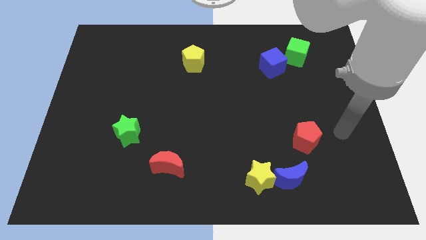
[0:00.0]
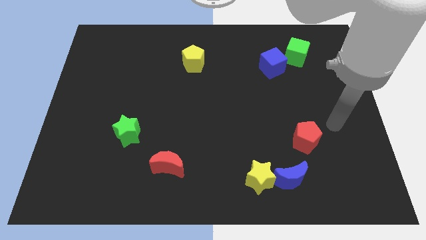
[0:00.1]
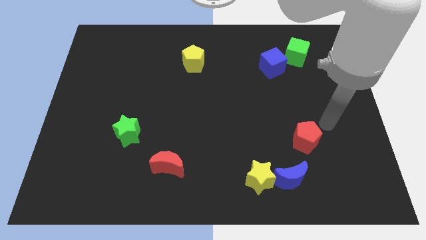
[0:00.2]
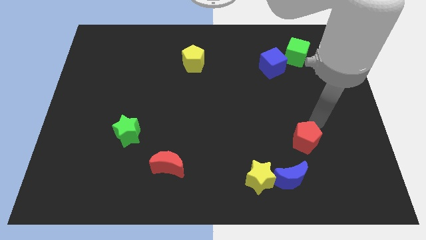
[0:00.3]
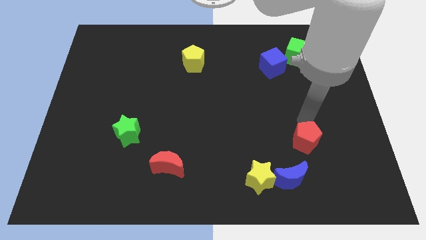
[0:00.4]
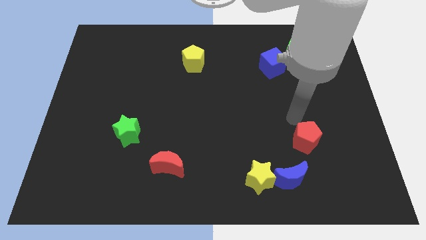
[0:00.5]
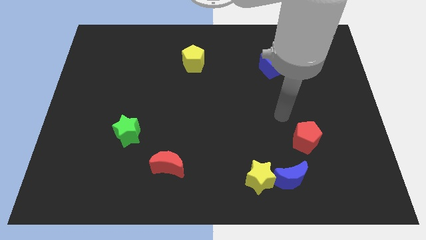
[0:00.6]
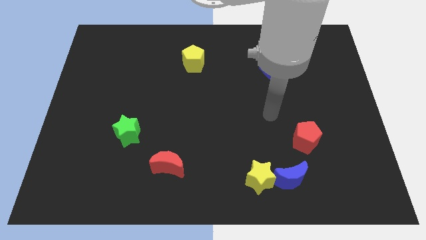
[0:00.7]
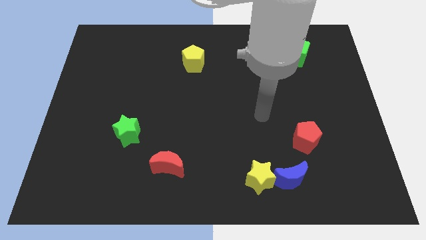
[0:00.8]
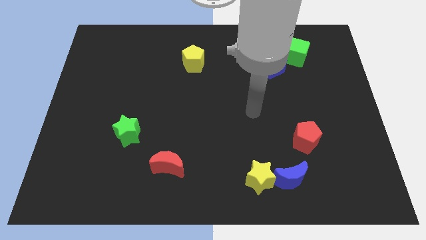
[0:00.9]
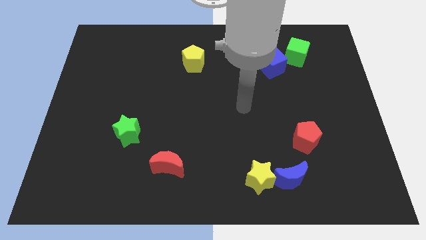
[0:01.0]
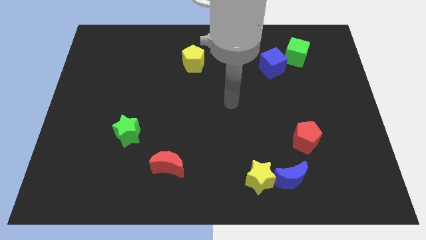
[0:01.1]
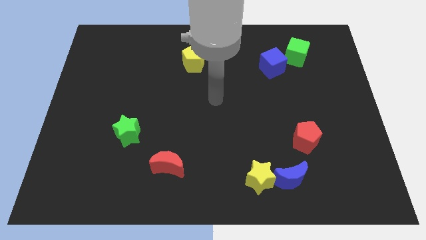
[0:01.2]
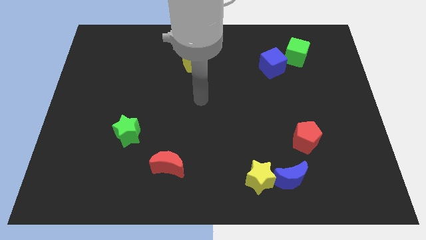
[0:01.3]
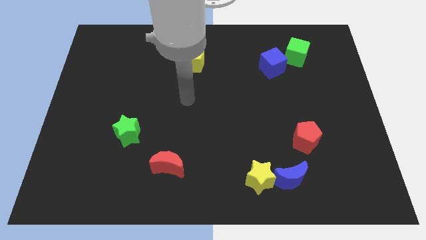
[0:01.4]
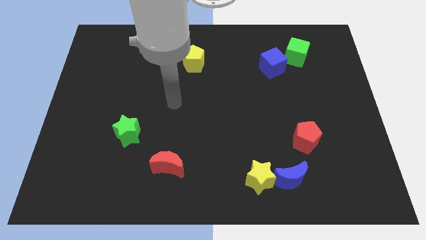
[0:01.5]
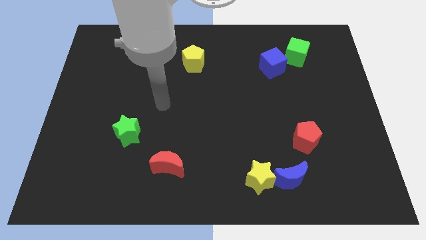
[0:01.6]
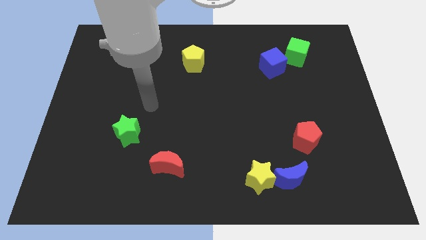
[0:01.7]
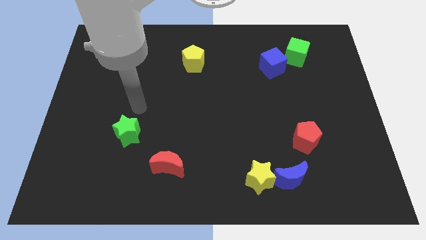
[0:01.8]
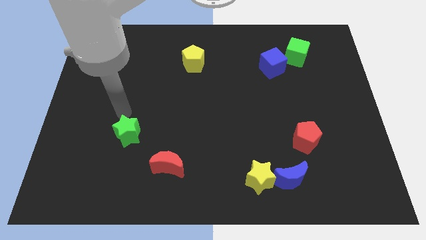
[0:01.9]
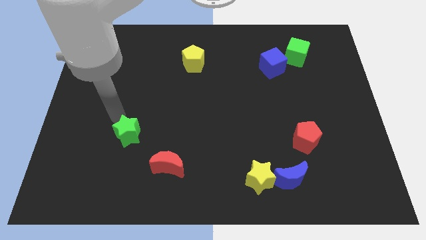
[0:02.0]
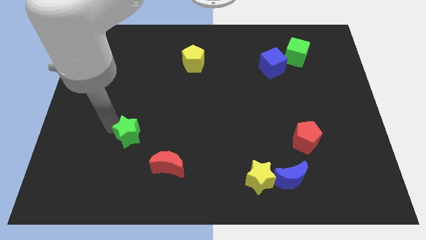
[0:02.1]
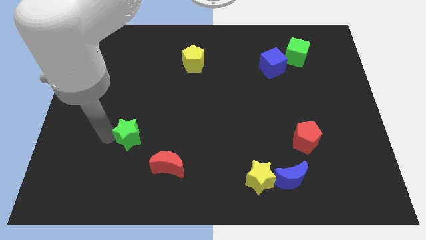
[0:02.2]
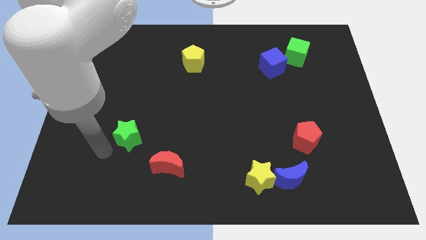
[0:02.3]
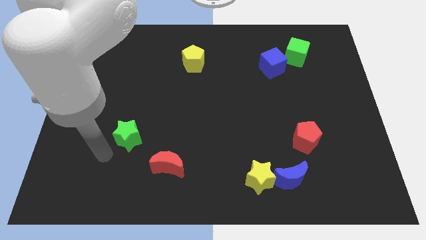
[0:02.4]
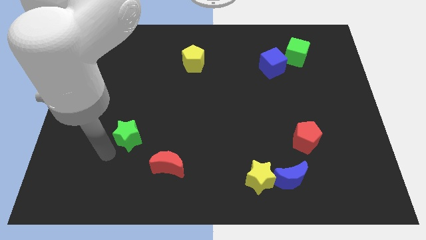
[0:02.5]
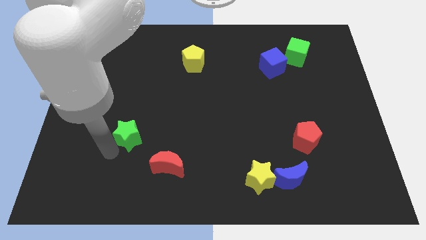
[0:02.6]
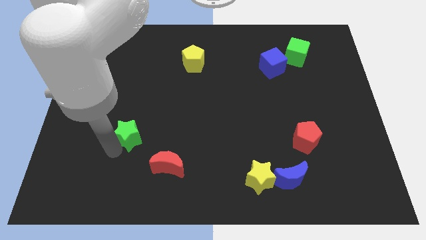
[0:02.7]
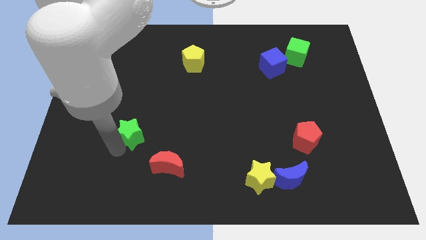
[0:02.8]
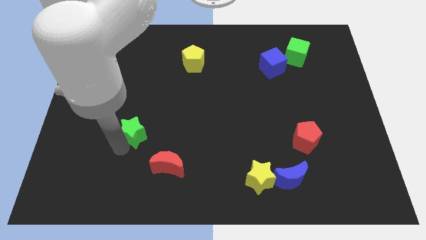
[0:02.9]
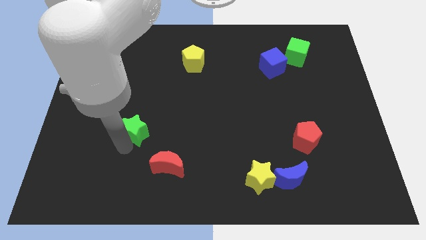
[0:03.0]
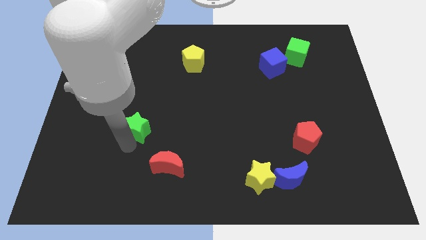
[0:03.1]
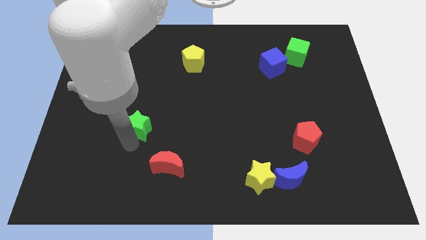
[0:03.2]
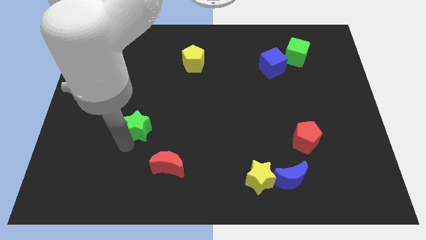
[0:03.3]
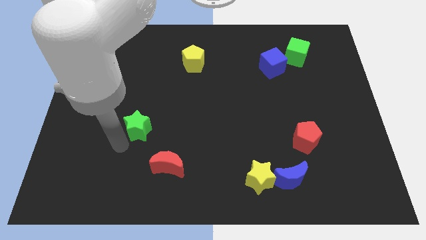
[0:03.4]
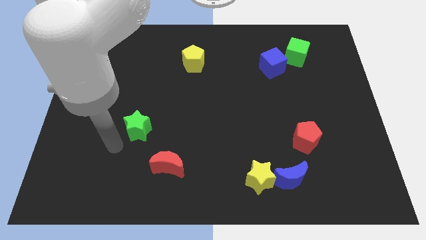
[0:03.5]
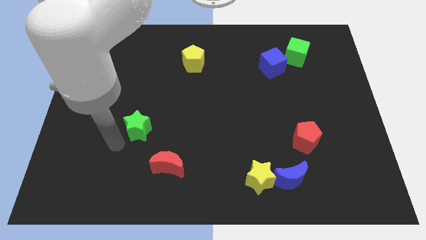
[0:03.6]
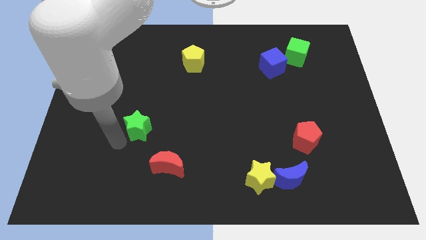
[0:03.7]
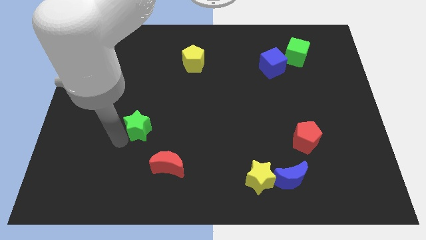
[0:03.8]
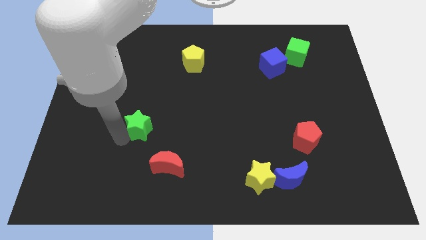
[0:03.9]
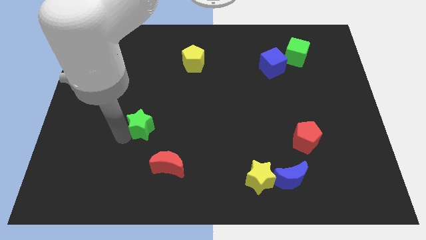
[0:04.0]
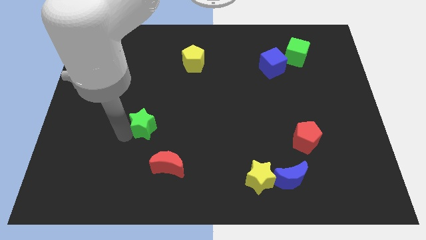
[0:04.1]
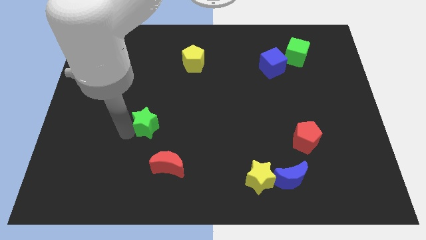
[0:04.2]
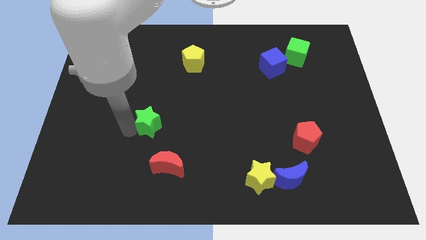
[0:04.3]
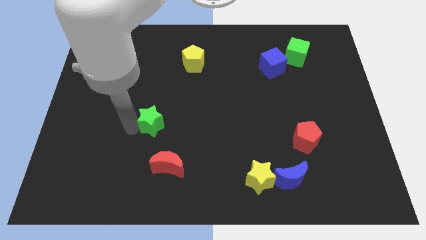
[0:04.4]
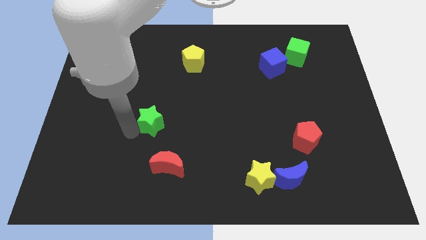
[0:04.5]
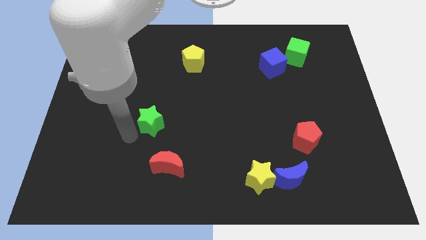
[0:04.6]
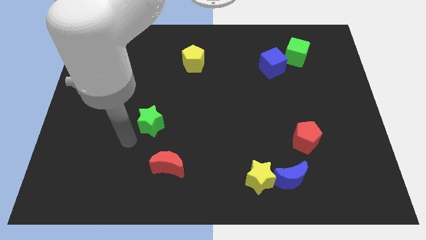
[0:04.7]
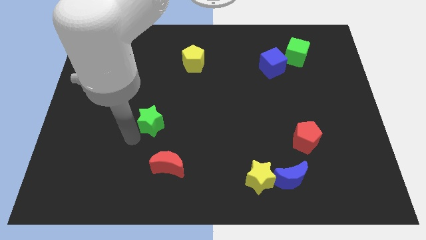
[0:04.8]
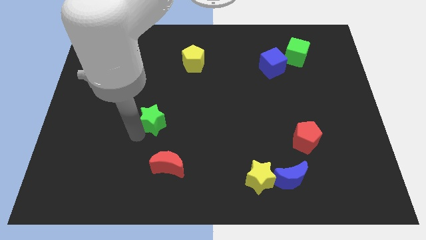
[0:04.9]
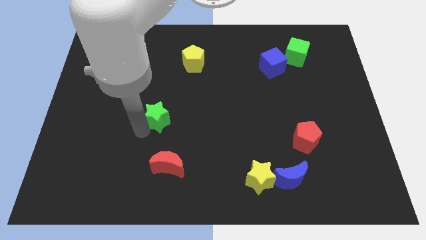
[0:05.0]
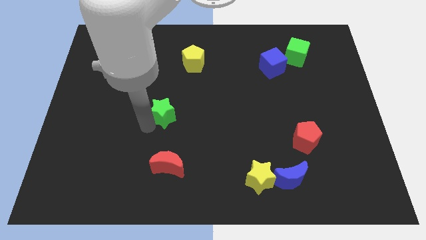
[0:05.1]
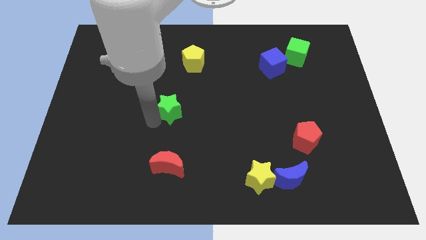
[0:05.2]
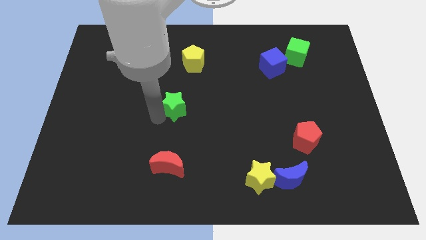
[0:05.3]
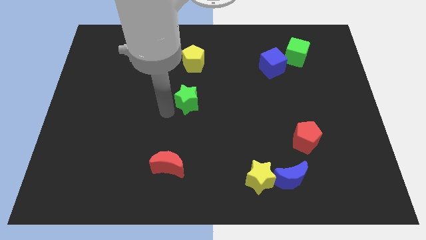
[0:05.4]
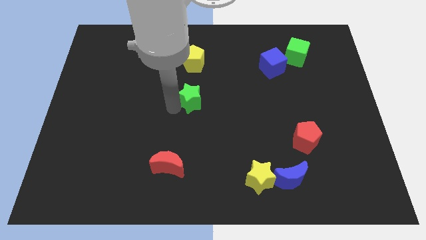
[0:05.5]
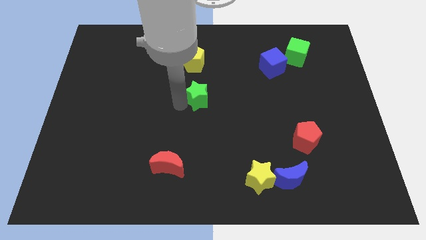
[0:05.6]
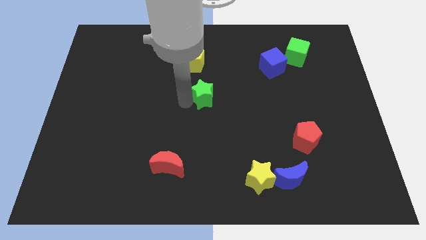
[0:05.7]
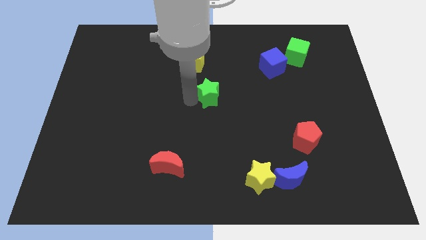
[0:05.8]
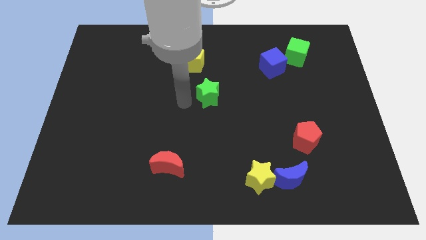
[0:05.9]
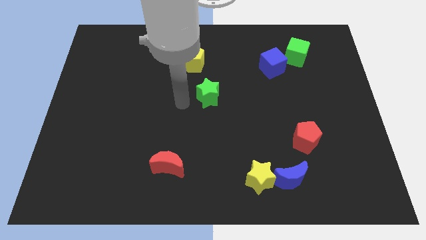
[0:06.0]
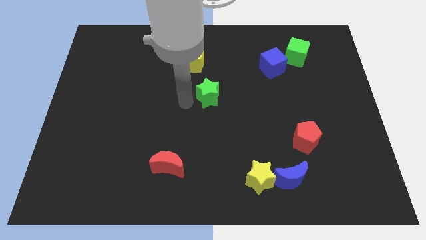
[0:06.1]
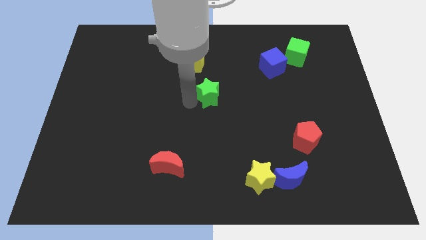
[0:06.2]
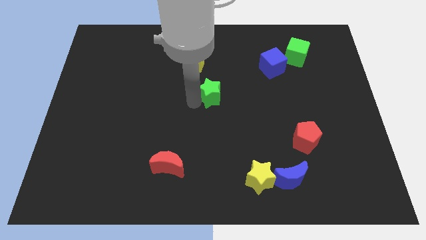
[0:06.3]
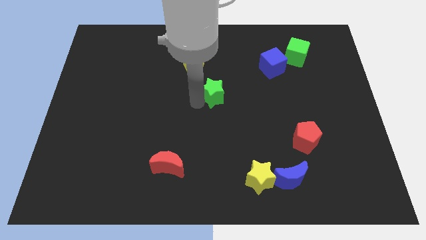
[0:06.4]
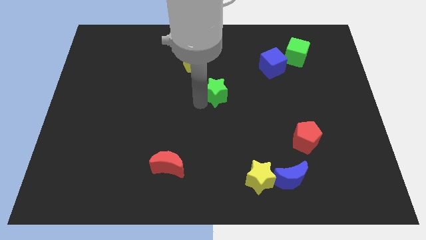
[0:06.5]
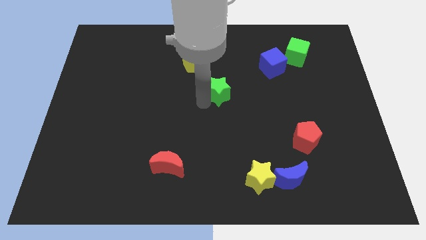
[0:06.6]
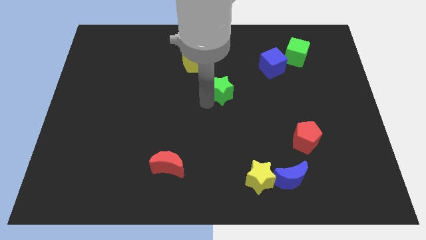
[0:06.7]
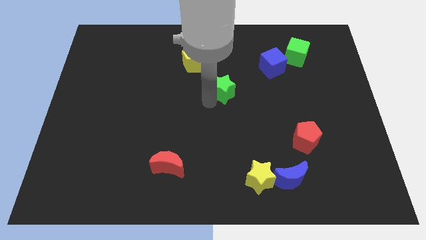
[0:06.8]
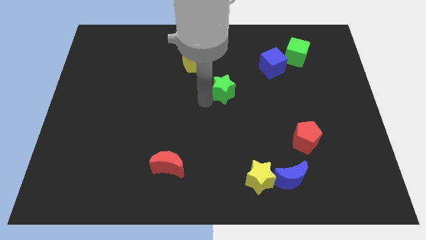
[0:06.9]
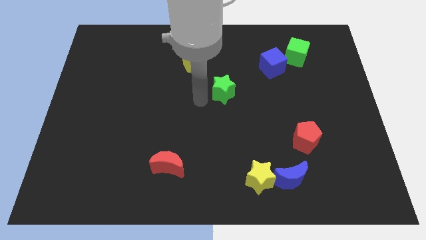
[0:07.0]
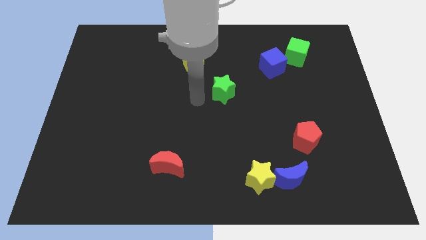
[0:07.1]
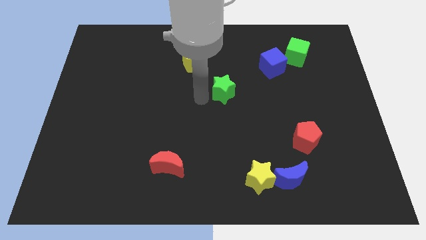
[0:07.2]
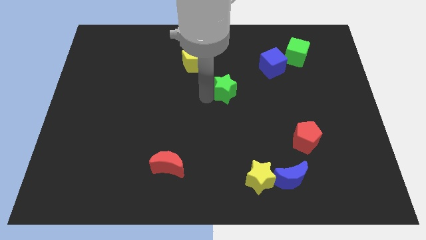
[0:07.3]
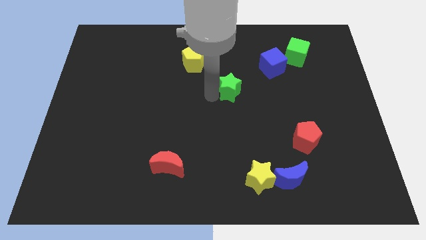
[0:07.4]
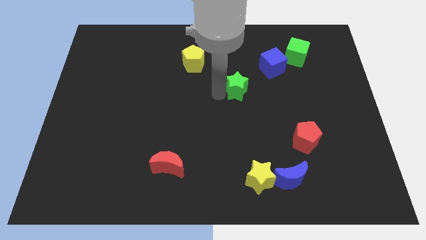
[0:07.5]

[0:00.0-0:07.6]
push the green star diagonally down and to the left of the blue cube

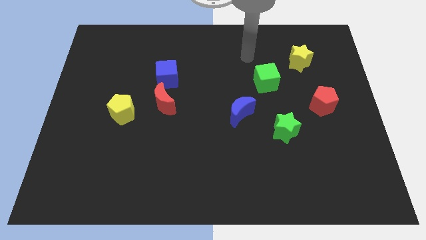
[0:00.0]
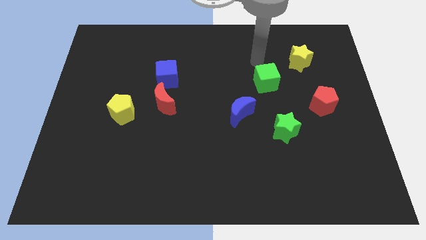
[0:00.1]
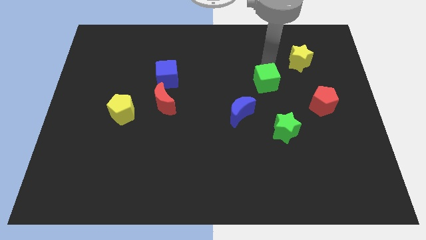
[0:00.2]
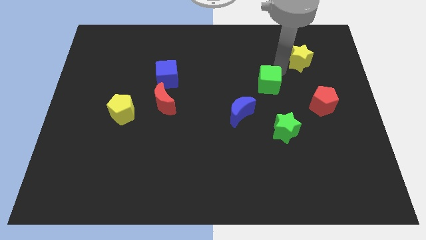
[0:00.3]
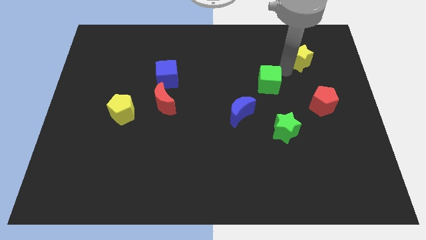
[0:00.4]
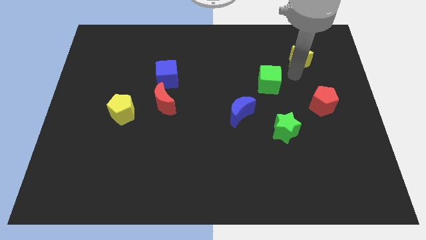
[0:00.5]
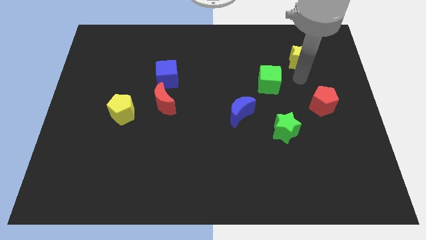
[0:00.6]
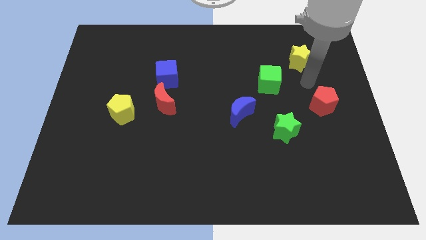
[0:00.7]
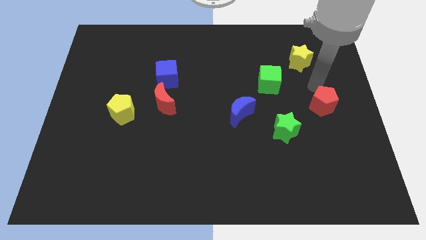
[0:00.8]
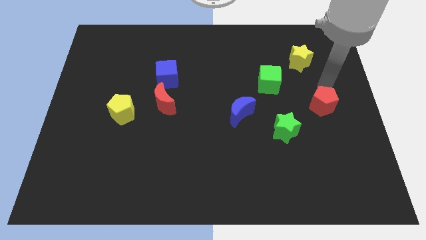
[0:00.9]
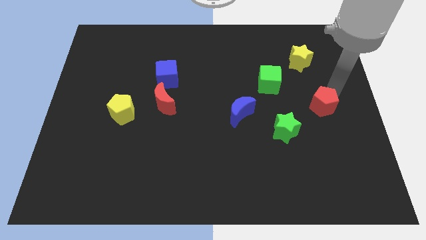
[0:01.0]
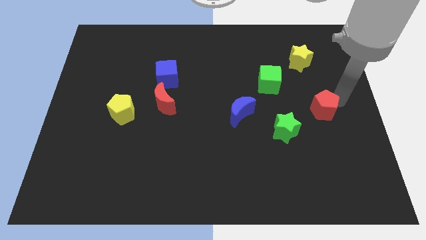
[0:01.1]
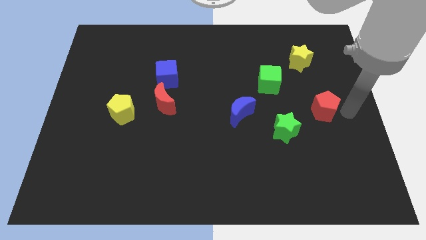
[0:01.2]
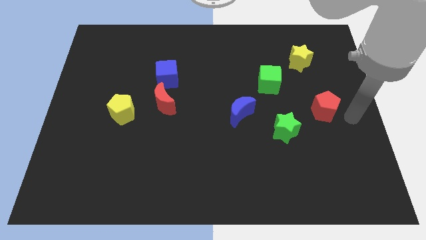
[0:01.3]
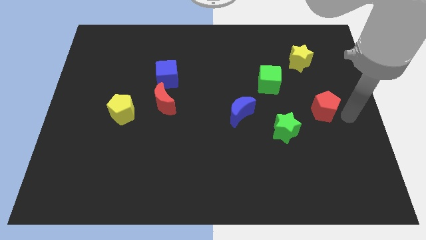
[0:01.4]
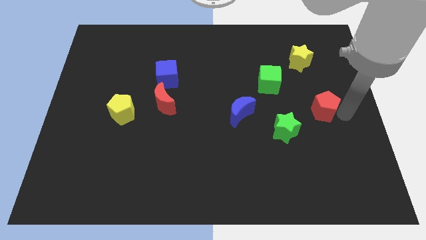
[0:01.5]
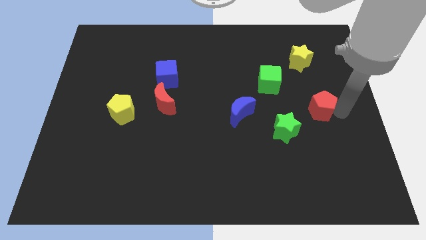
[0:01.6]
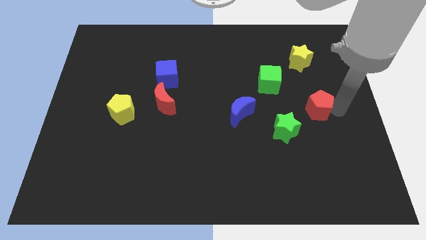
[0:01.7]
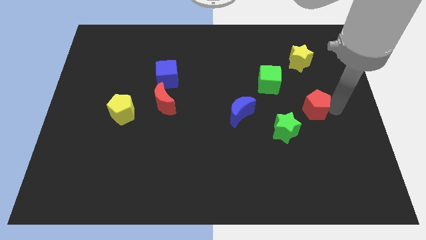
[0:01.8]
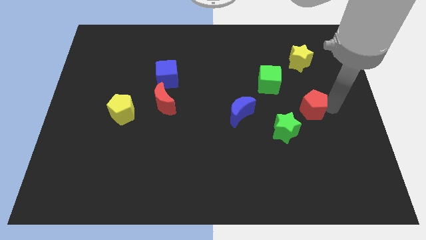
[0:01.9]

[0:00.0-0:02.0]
push the red pentagon to the bottom right side of the green cube
